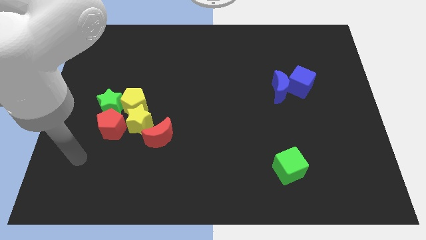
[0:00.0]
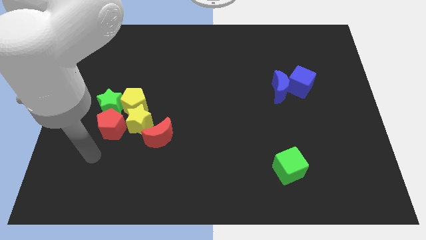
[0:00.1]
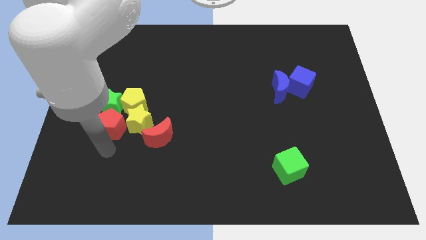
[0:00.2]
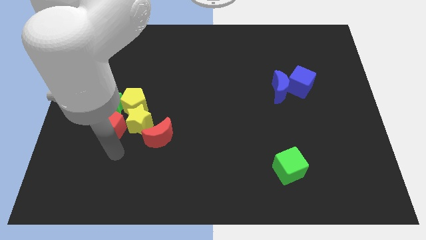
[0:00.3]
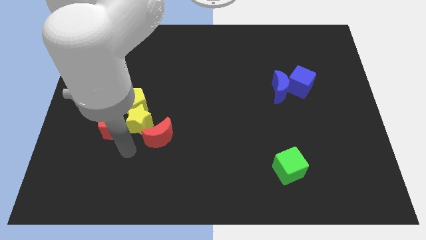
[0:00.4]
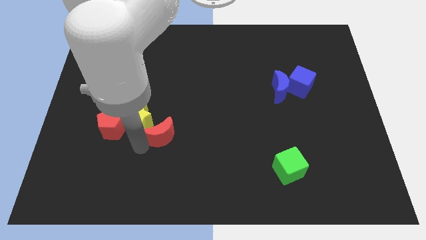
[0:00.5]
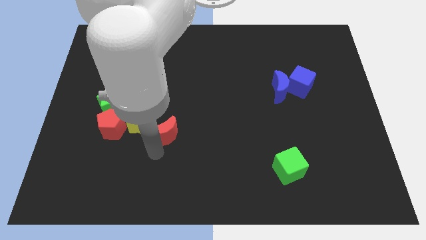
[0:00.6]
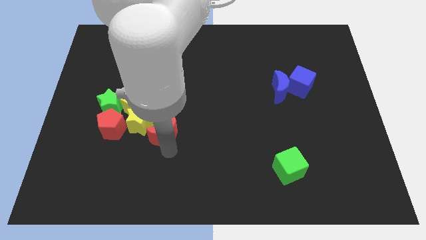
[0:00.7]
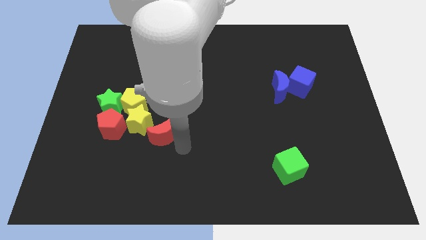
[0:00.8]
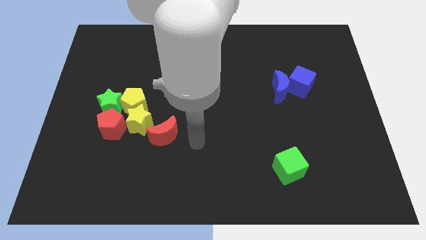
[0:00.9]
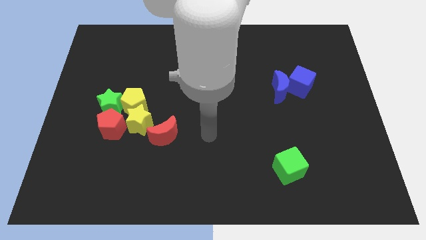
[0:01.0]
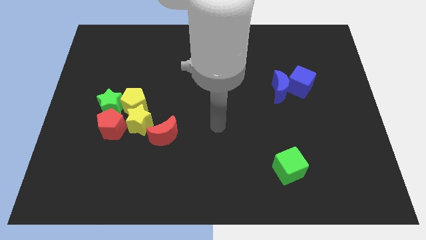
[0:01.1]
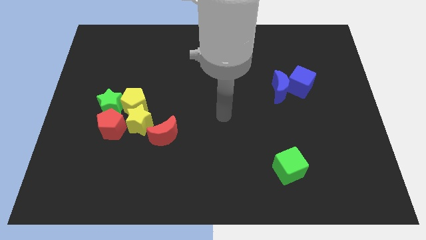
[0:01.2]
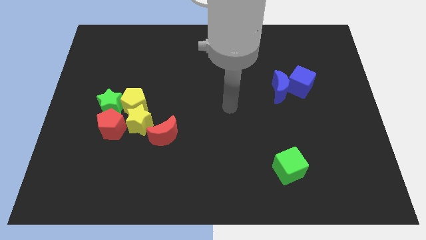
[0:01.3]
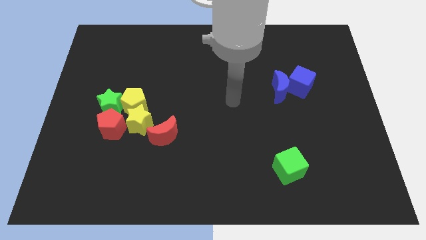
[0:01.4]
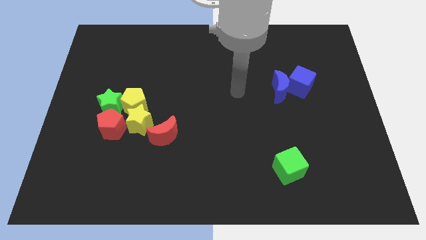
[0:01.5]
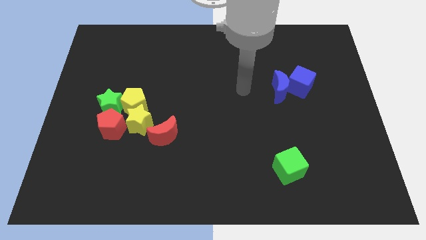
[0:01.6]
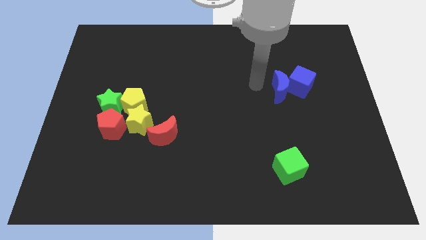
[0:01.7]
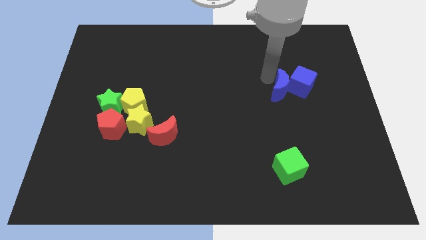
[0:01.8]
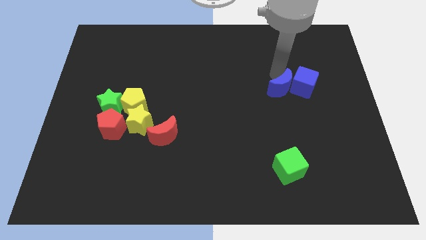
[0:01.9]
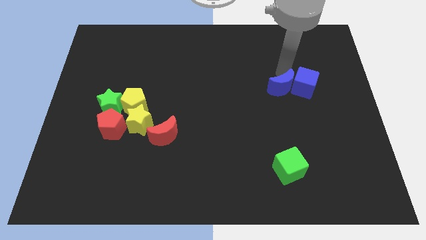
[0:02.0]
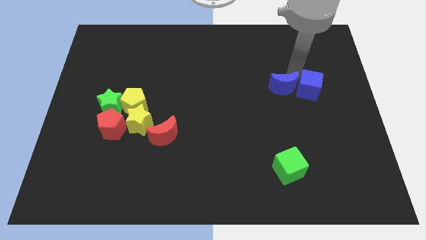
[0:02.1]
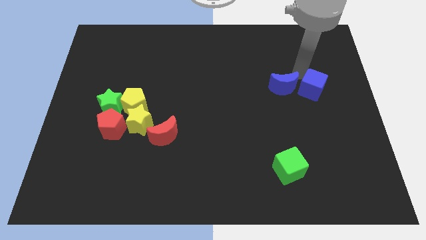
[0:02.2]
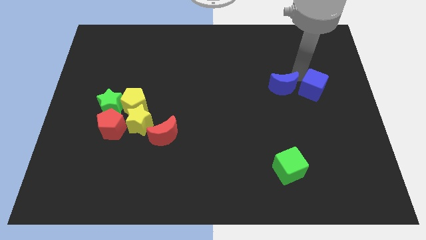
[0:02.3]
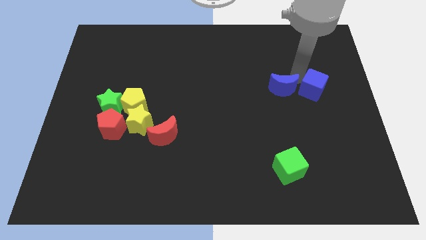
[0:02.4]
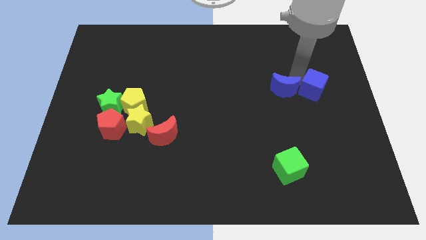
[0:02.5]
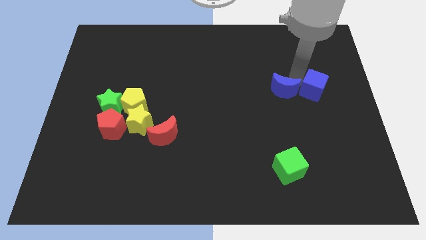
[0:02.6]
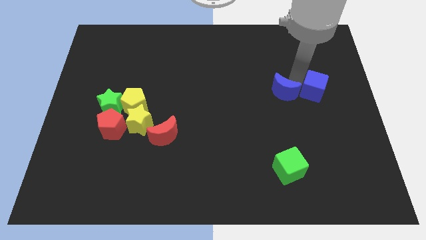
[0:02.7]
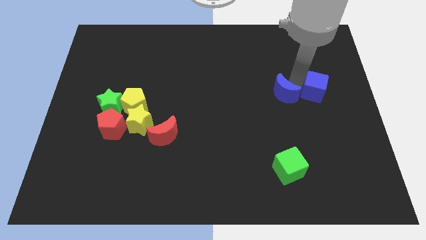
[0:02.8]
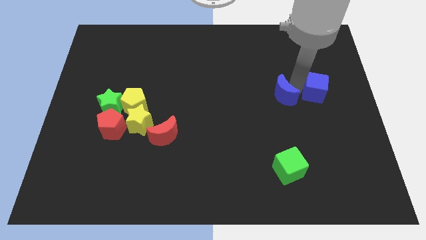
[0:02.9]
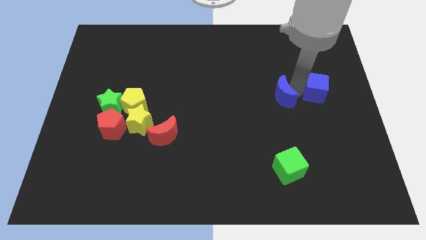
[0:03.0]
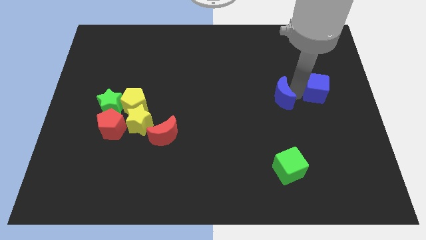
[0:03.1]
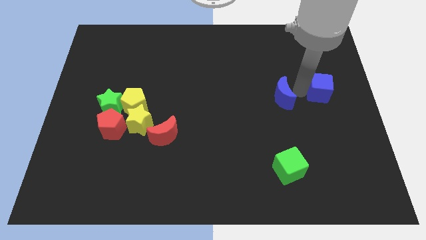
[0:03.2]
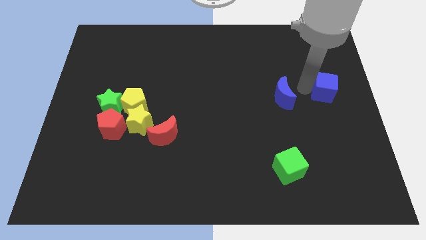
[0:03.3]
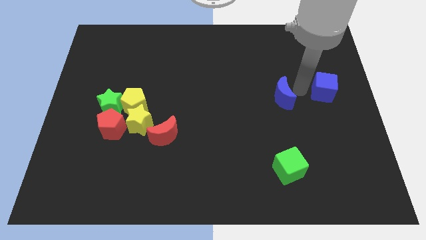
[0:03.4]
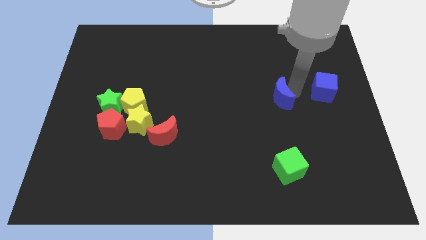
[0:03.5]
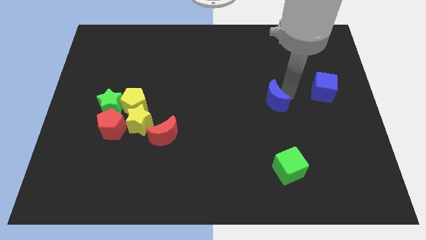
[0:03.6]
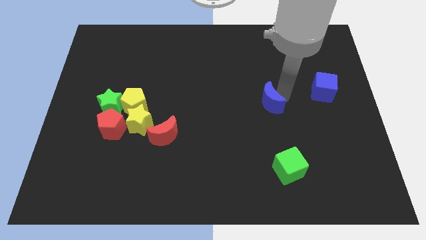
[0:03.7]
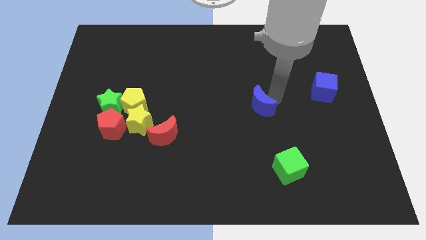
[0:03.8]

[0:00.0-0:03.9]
slightly move the blue moon diagonally down and to the left

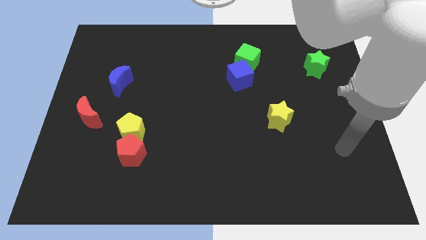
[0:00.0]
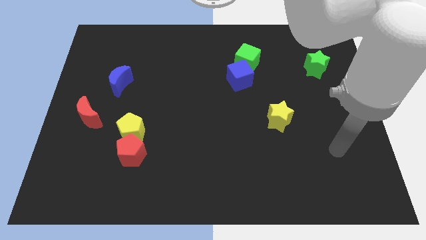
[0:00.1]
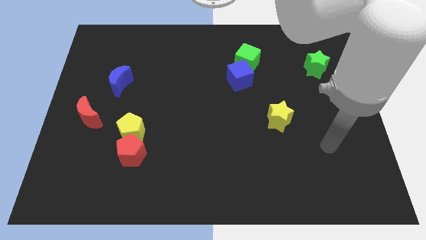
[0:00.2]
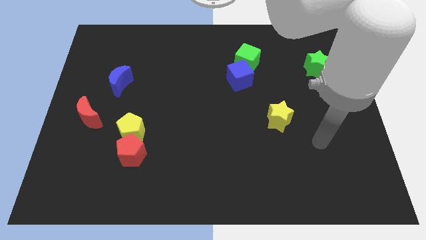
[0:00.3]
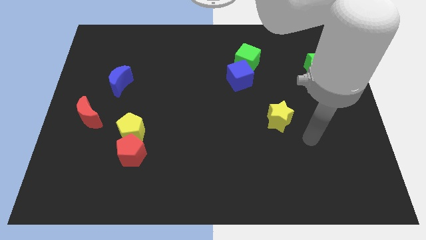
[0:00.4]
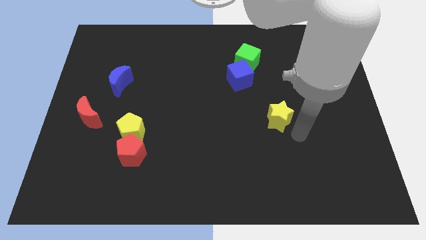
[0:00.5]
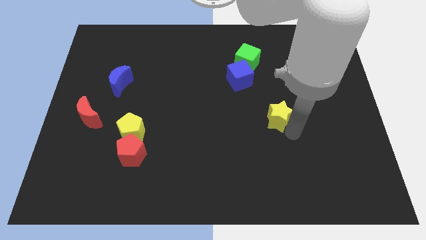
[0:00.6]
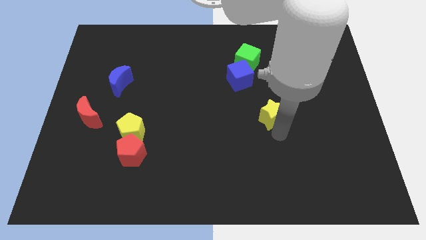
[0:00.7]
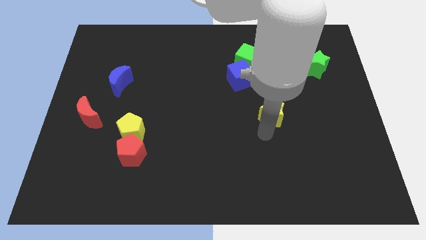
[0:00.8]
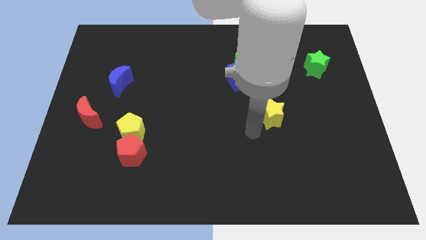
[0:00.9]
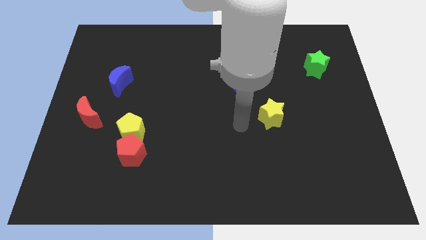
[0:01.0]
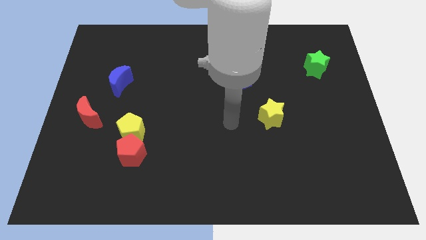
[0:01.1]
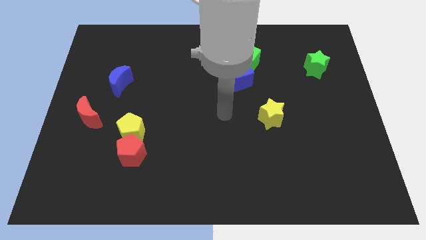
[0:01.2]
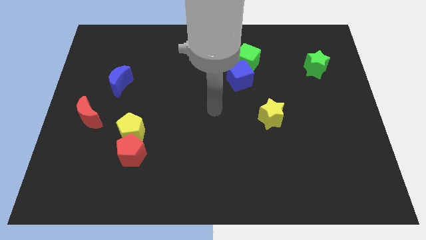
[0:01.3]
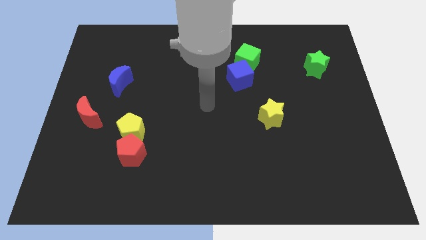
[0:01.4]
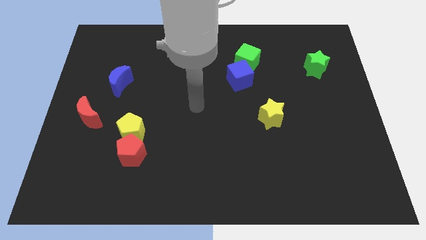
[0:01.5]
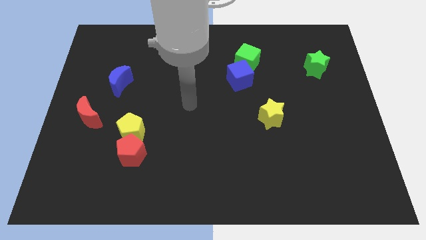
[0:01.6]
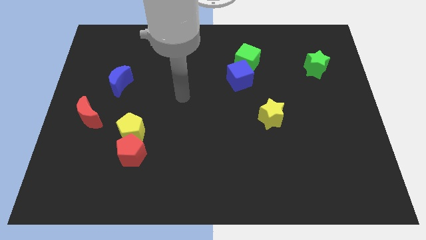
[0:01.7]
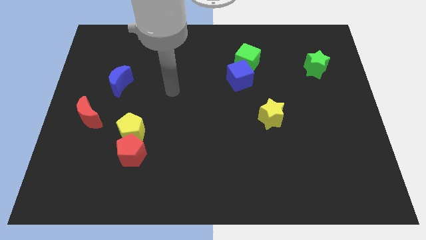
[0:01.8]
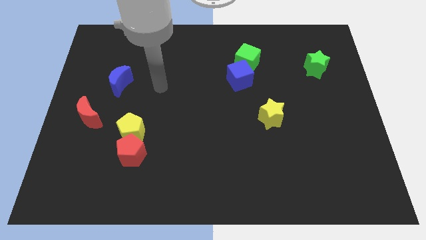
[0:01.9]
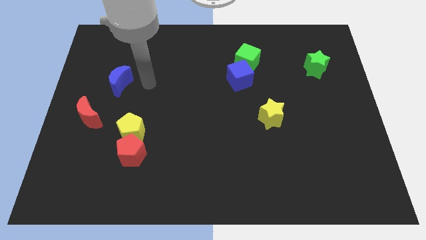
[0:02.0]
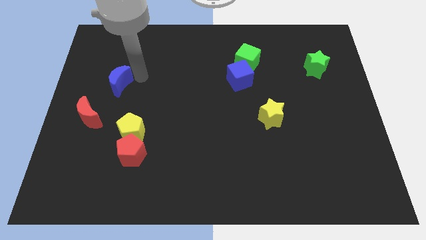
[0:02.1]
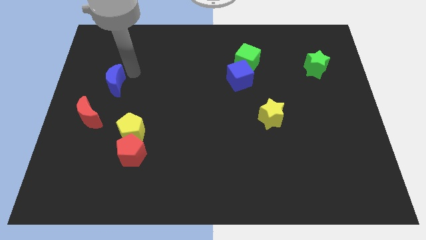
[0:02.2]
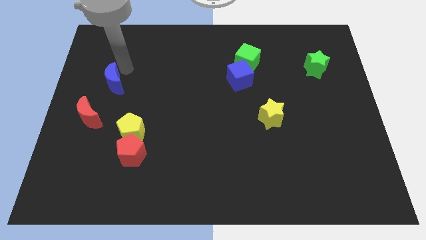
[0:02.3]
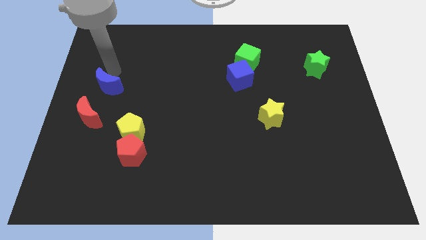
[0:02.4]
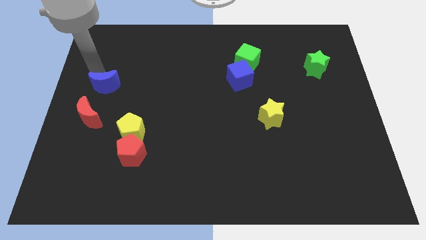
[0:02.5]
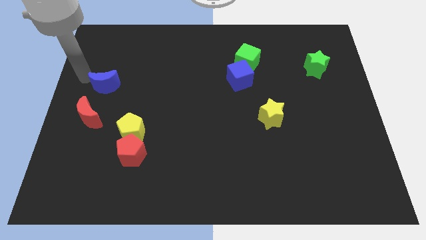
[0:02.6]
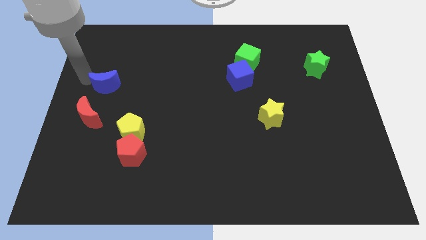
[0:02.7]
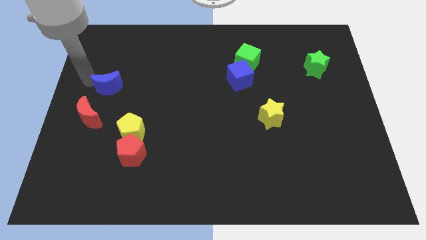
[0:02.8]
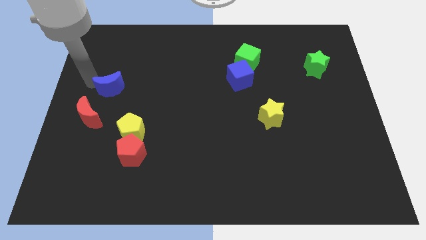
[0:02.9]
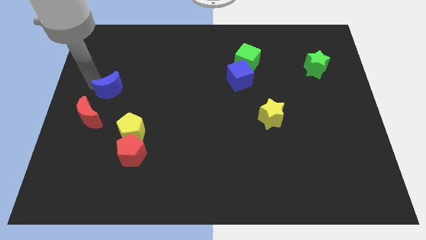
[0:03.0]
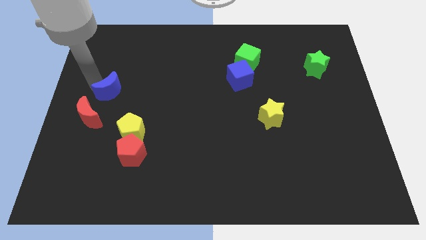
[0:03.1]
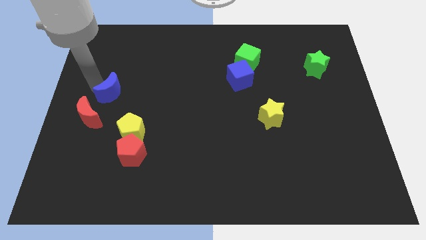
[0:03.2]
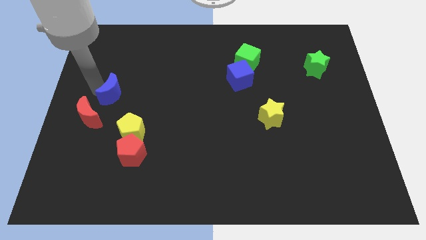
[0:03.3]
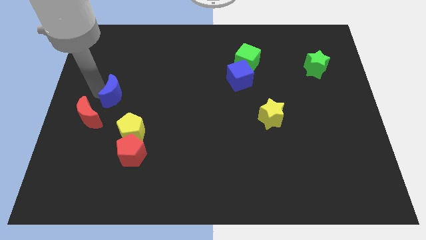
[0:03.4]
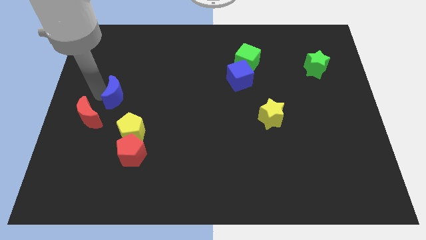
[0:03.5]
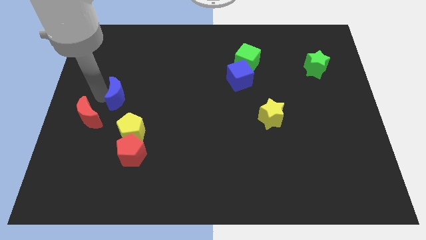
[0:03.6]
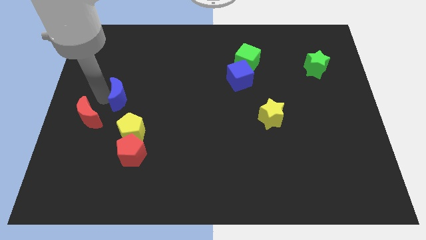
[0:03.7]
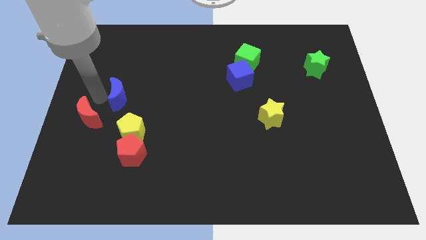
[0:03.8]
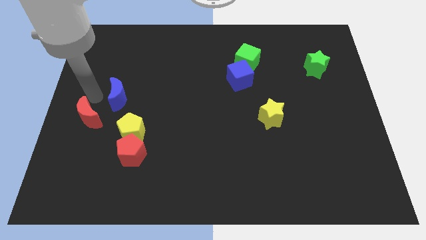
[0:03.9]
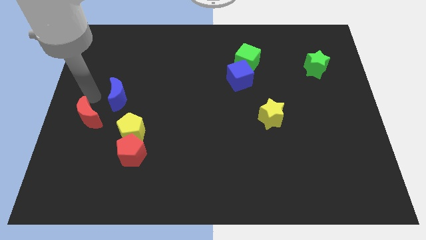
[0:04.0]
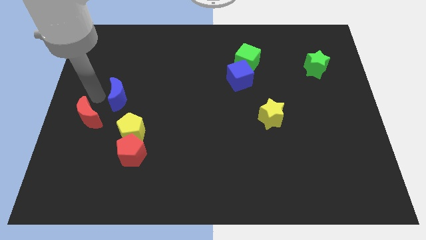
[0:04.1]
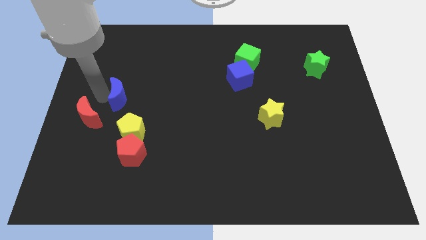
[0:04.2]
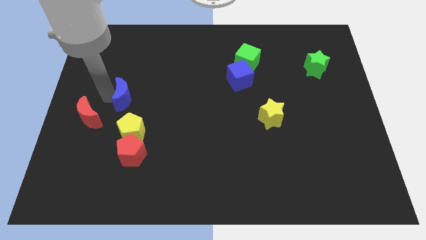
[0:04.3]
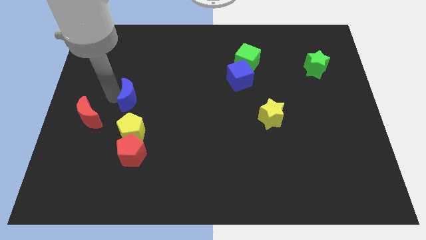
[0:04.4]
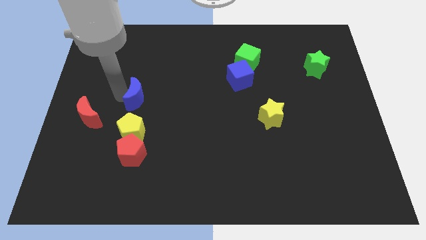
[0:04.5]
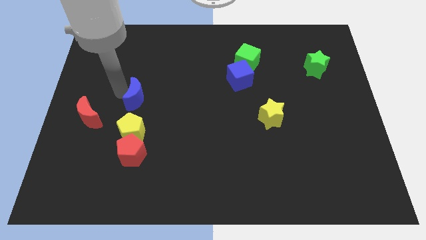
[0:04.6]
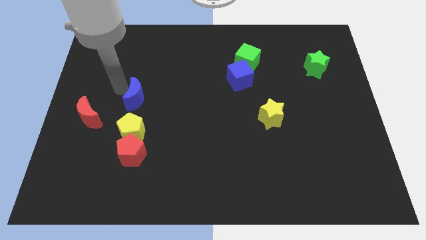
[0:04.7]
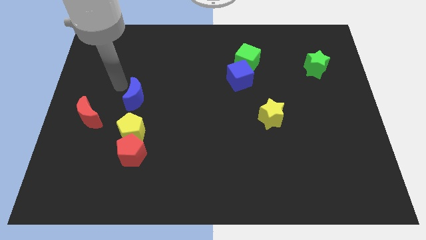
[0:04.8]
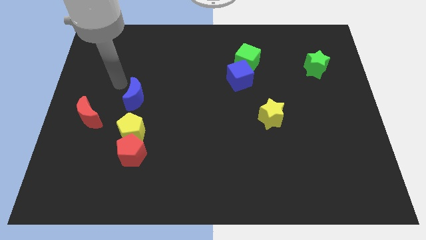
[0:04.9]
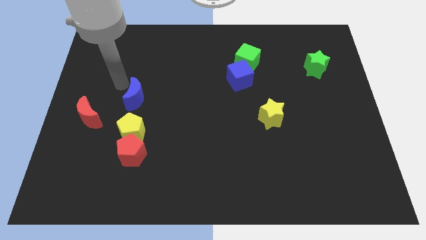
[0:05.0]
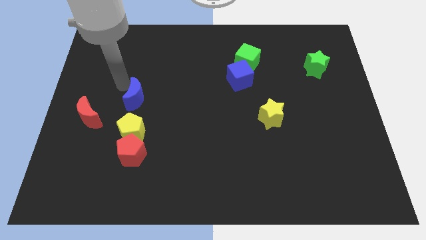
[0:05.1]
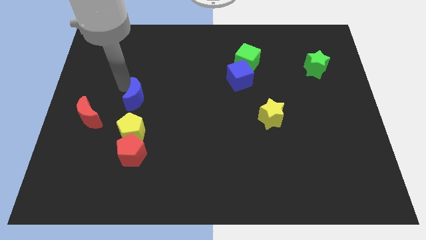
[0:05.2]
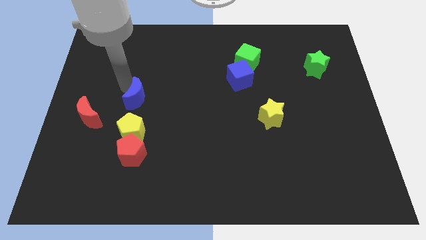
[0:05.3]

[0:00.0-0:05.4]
slightly move the blue moon downwards and then right
